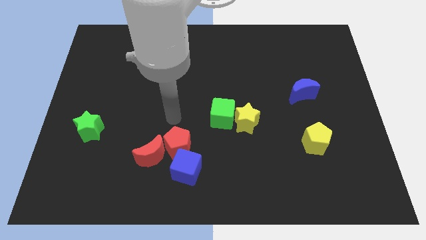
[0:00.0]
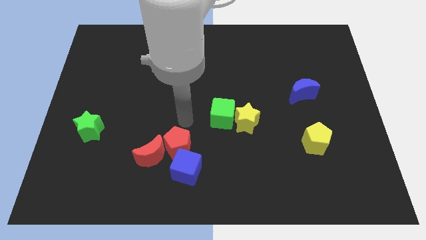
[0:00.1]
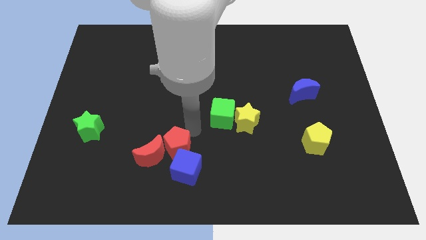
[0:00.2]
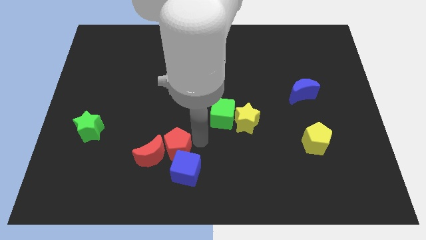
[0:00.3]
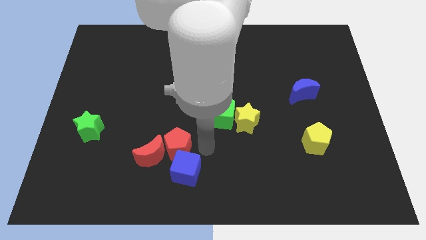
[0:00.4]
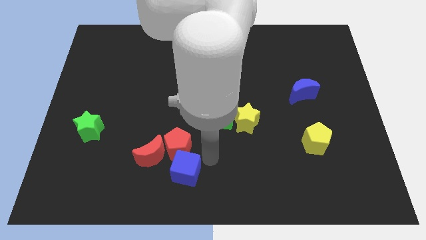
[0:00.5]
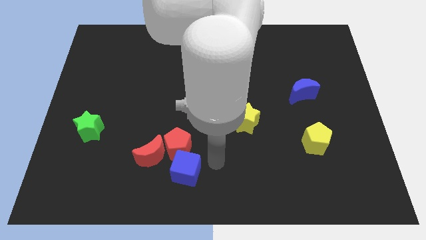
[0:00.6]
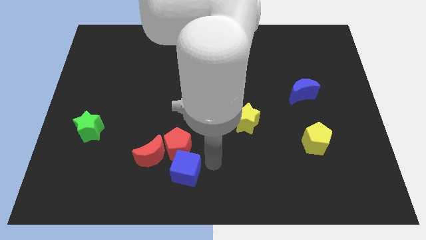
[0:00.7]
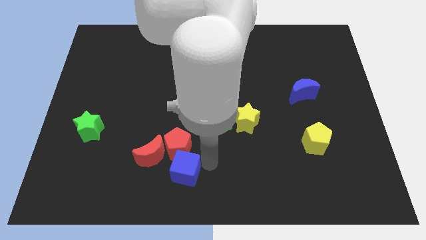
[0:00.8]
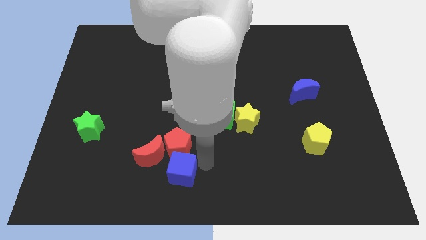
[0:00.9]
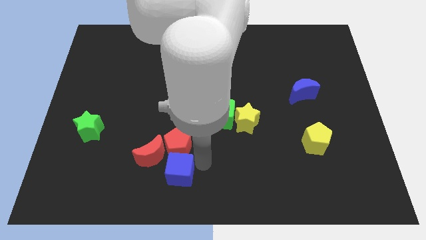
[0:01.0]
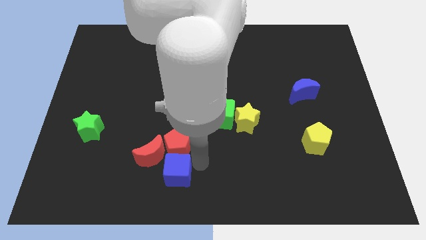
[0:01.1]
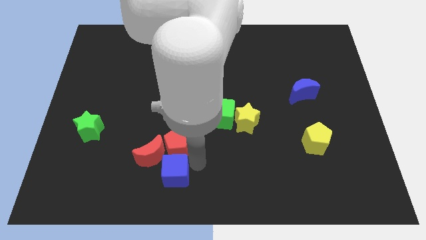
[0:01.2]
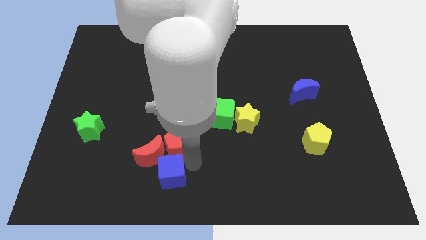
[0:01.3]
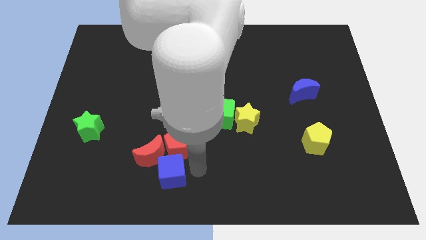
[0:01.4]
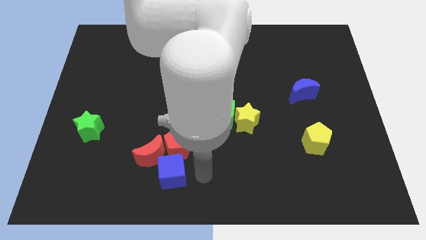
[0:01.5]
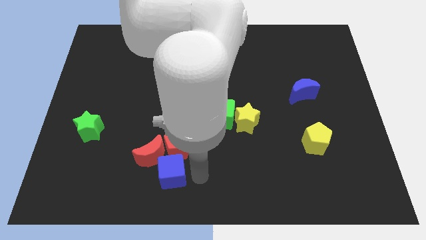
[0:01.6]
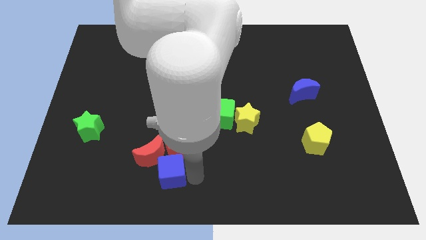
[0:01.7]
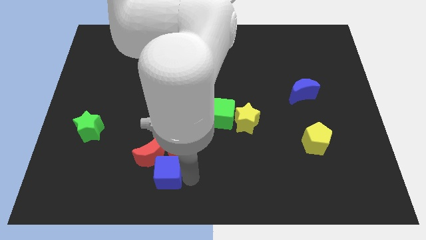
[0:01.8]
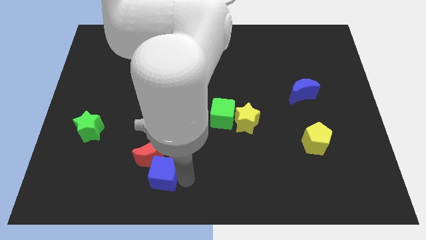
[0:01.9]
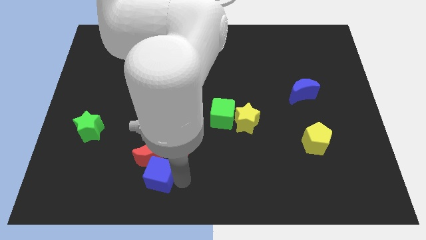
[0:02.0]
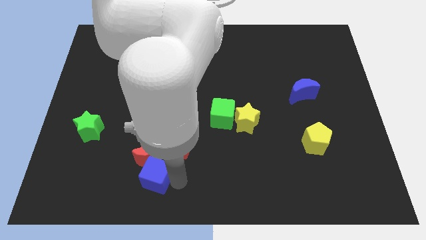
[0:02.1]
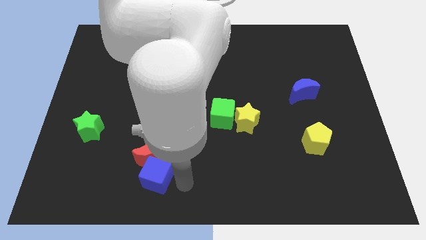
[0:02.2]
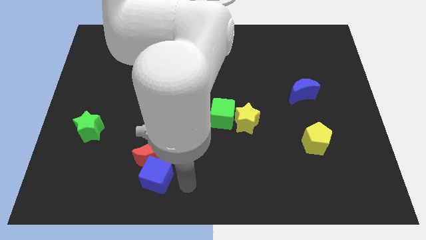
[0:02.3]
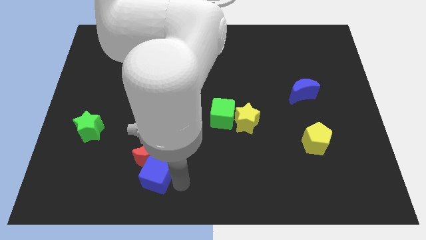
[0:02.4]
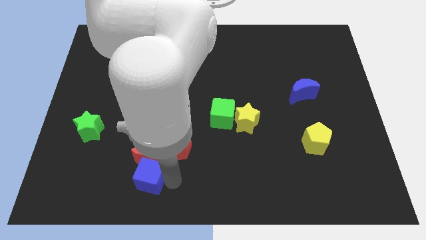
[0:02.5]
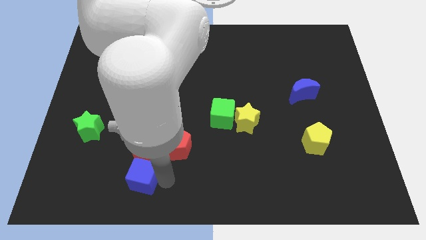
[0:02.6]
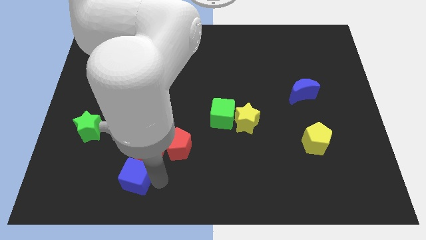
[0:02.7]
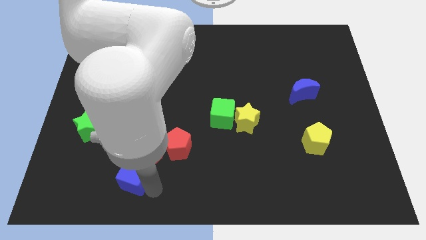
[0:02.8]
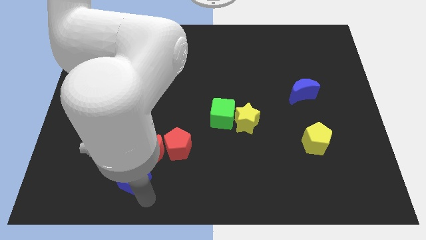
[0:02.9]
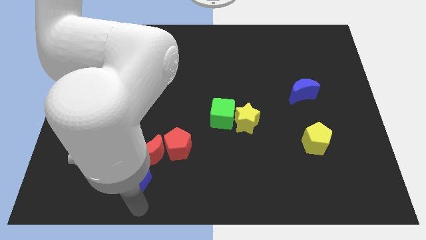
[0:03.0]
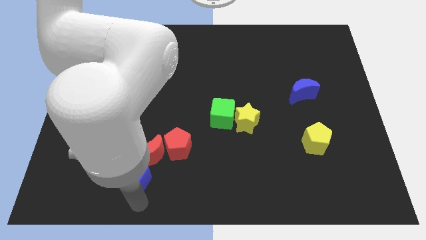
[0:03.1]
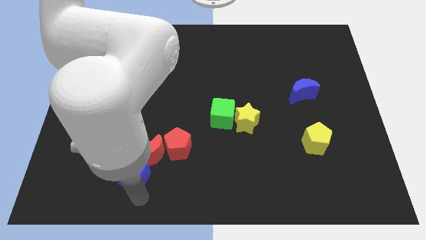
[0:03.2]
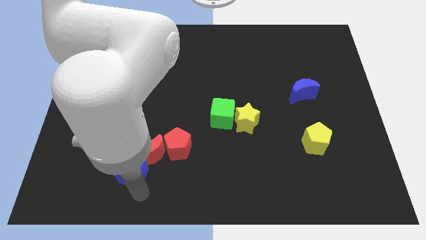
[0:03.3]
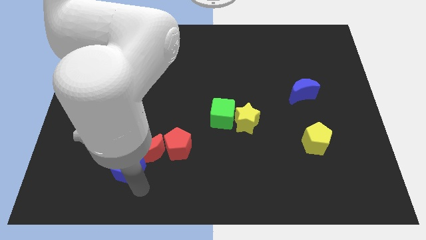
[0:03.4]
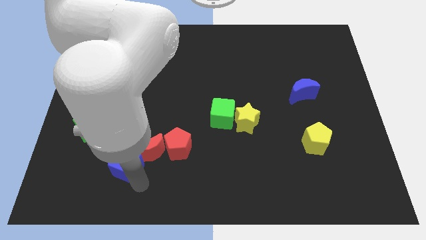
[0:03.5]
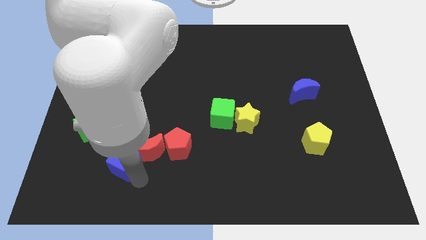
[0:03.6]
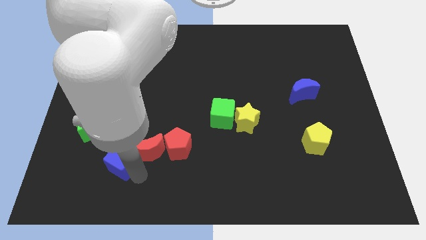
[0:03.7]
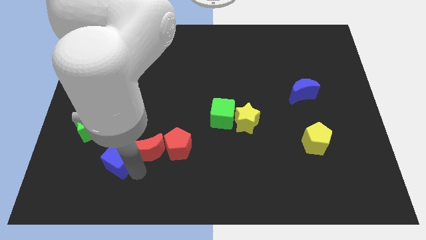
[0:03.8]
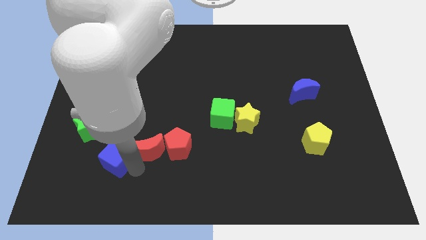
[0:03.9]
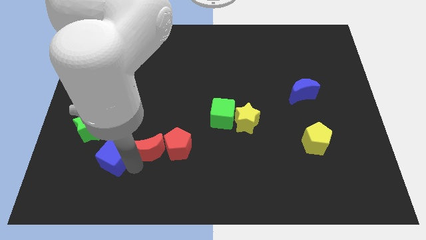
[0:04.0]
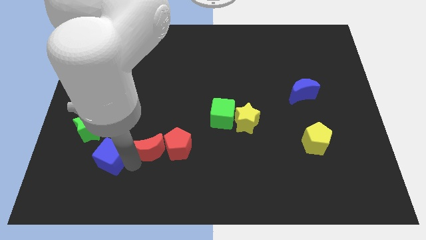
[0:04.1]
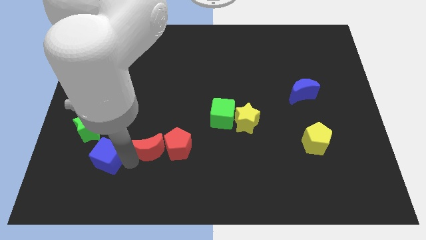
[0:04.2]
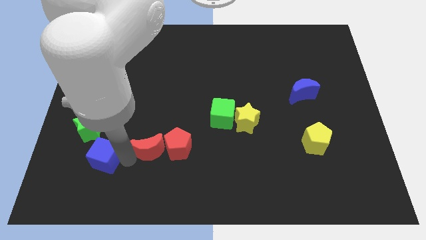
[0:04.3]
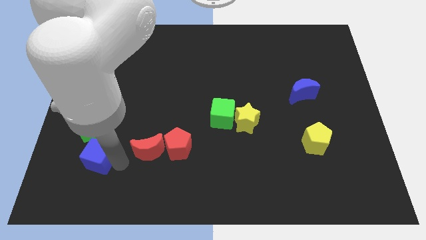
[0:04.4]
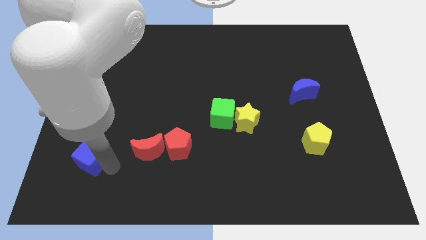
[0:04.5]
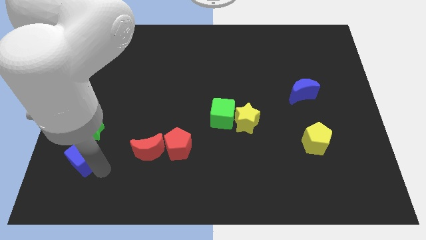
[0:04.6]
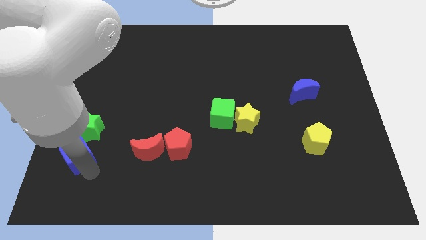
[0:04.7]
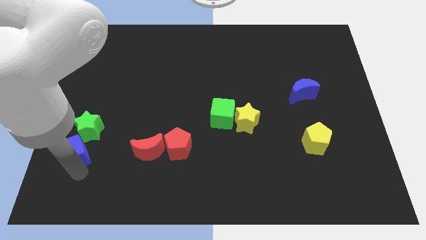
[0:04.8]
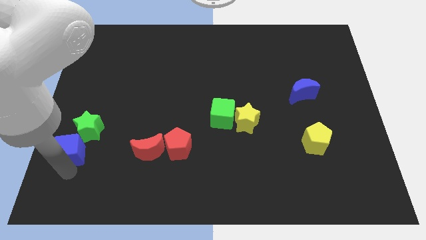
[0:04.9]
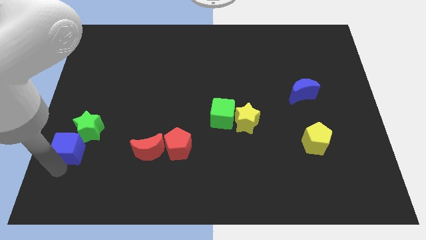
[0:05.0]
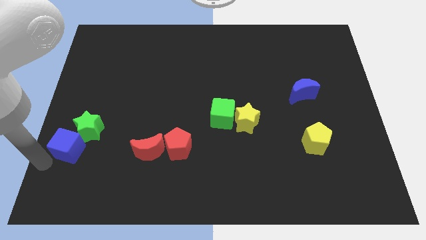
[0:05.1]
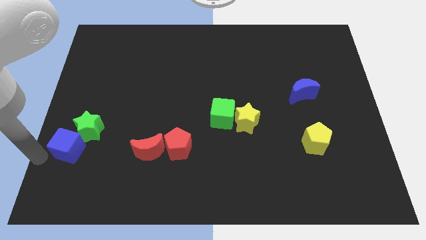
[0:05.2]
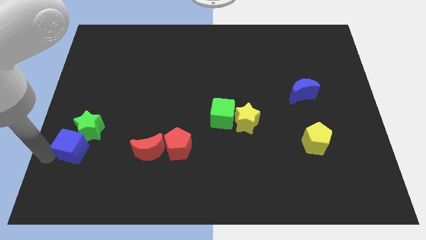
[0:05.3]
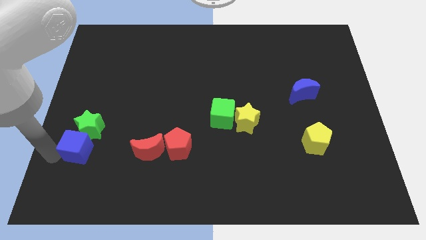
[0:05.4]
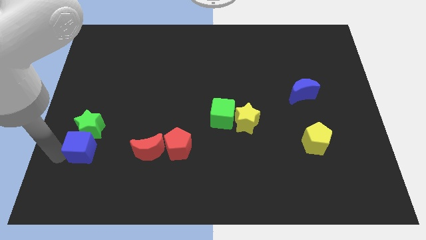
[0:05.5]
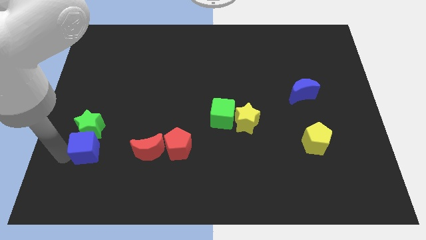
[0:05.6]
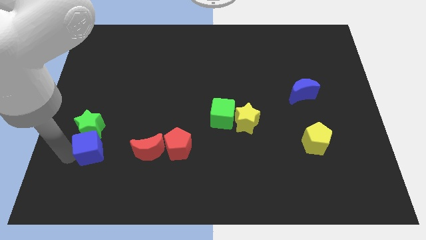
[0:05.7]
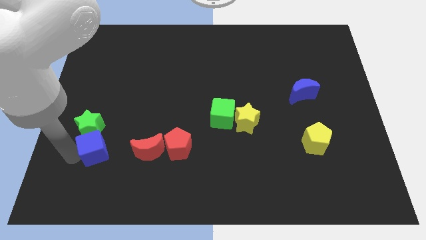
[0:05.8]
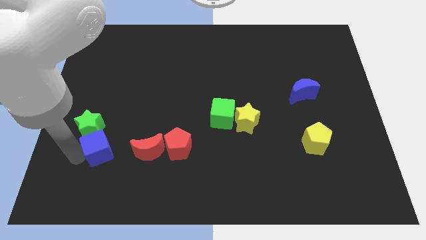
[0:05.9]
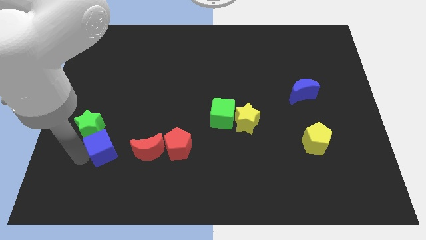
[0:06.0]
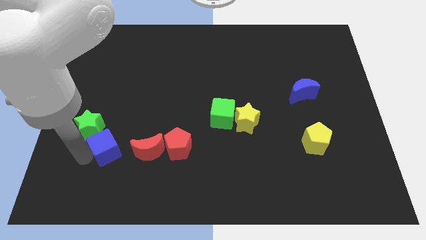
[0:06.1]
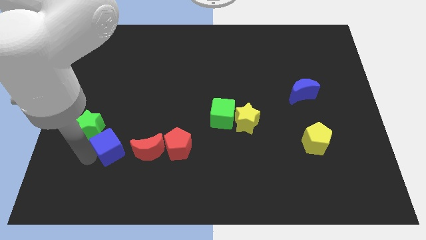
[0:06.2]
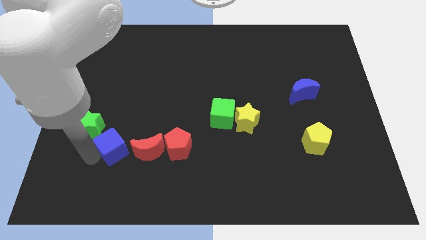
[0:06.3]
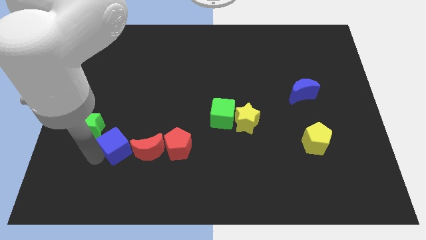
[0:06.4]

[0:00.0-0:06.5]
move the blue cube to the top left of the red moon

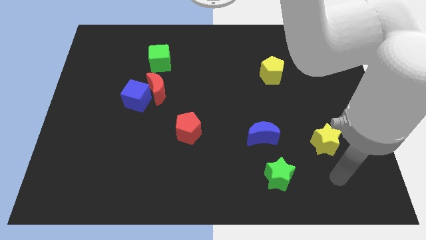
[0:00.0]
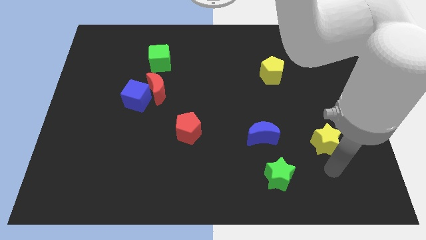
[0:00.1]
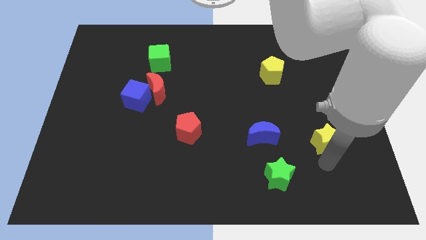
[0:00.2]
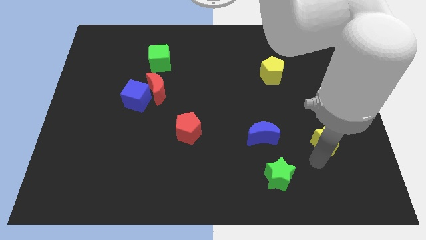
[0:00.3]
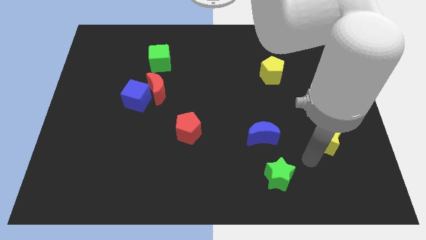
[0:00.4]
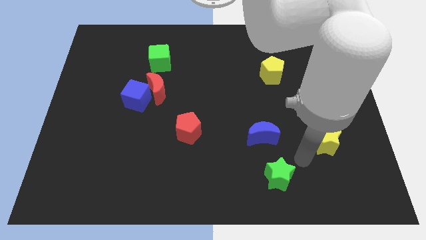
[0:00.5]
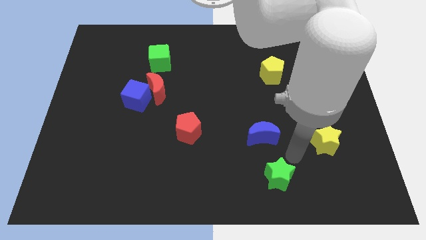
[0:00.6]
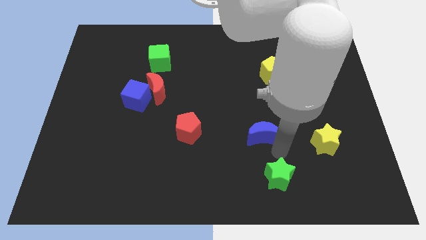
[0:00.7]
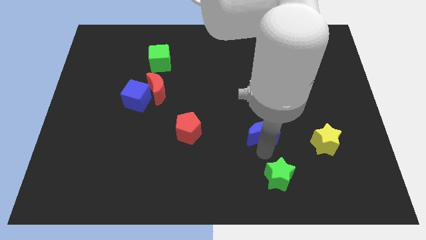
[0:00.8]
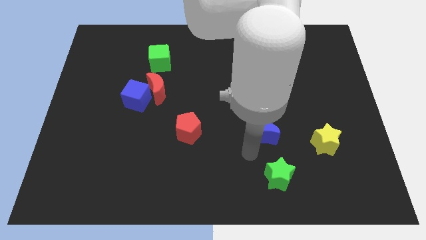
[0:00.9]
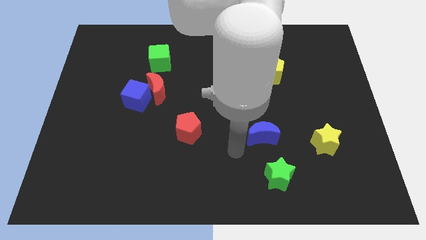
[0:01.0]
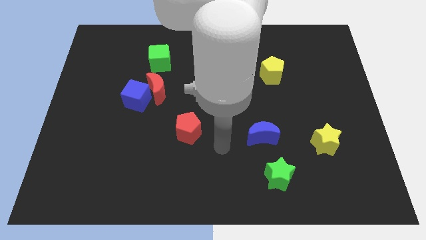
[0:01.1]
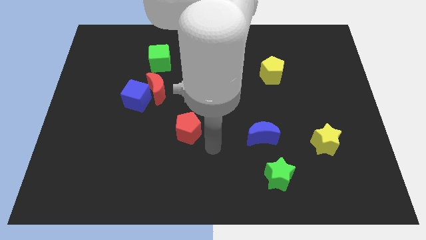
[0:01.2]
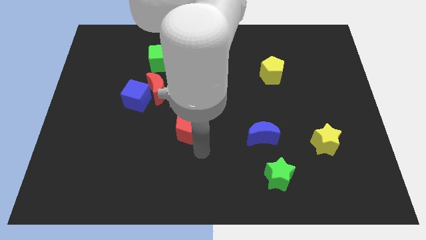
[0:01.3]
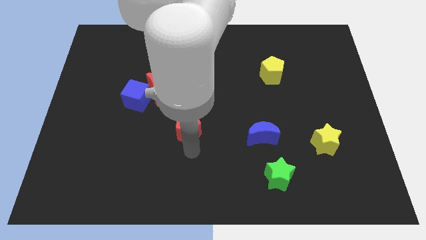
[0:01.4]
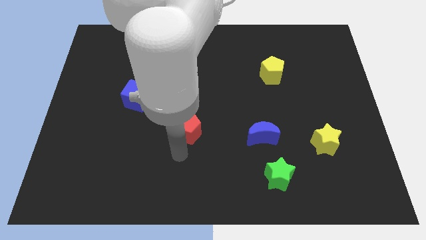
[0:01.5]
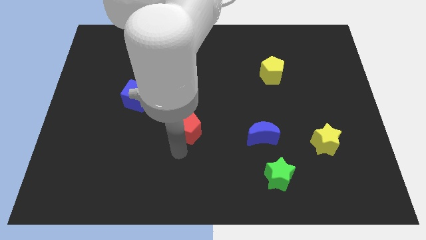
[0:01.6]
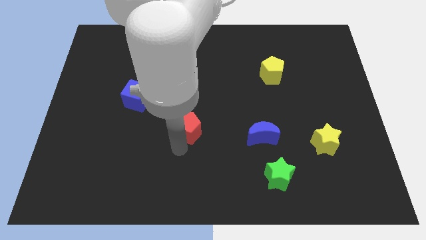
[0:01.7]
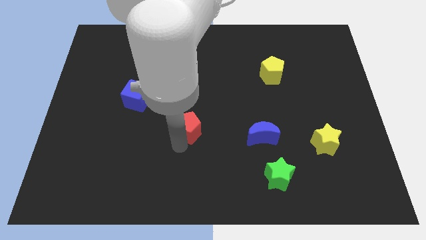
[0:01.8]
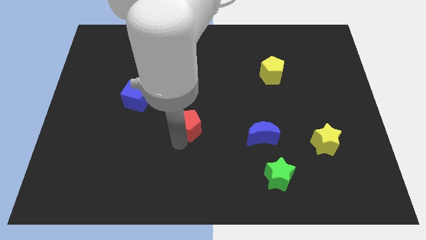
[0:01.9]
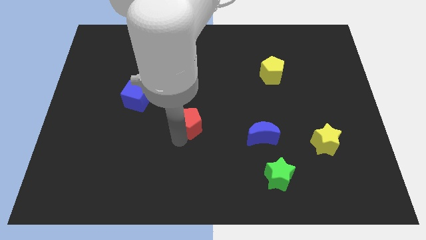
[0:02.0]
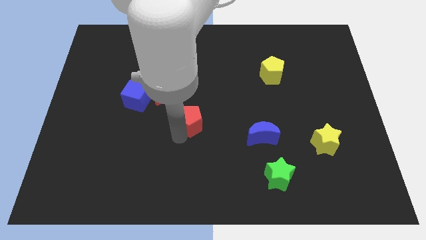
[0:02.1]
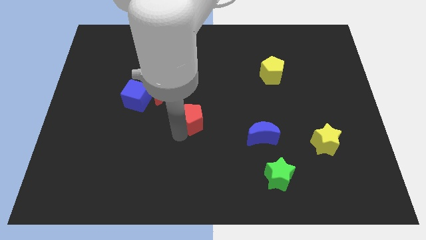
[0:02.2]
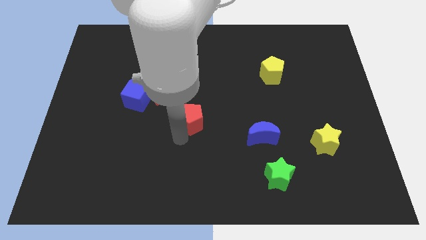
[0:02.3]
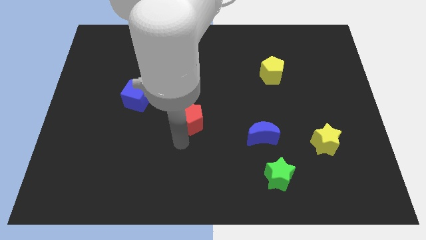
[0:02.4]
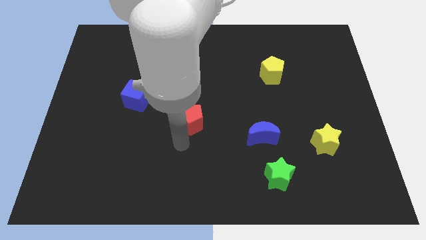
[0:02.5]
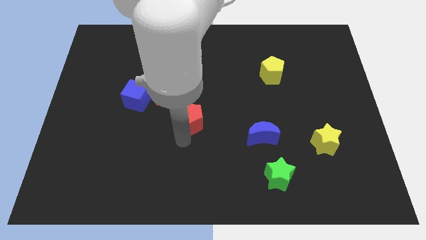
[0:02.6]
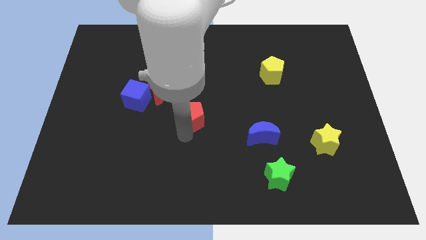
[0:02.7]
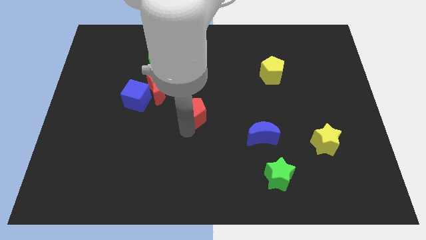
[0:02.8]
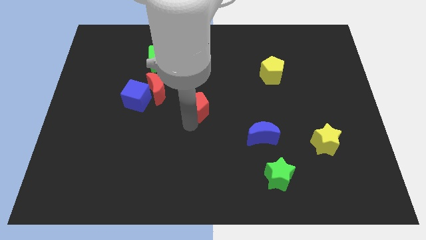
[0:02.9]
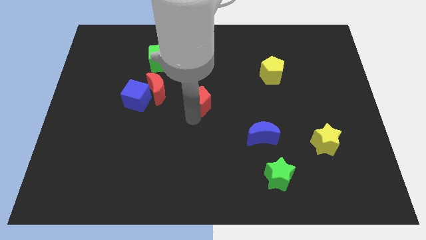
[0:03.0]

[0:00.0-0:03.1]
push the red pentagon right of the red moon
